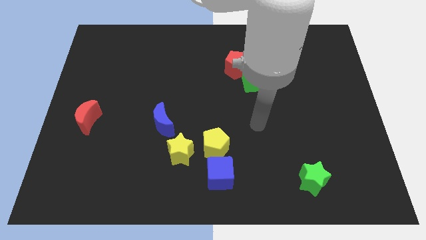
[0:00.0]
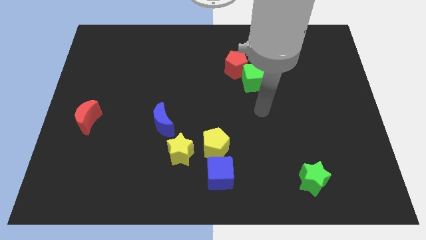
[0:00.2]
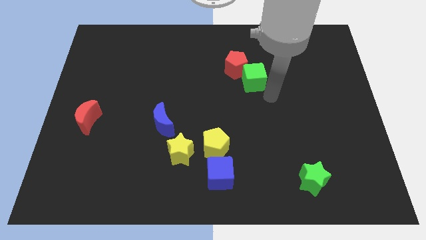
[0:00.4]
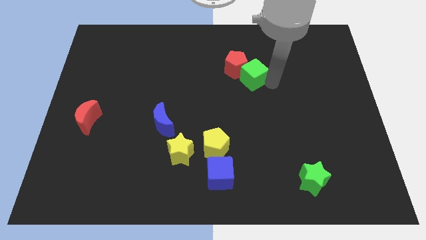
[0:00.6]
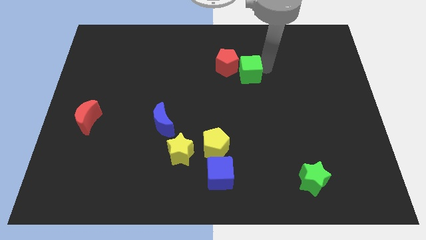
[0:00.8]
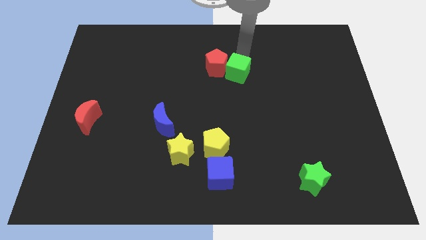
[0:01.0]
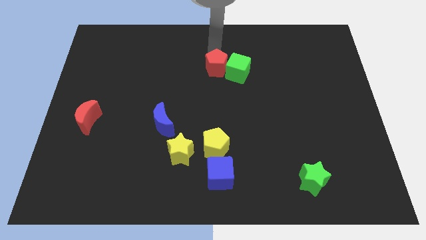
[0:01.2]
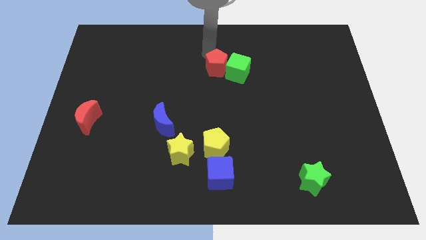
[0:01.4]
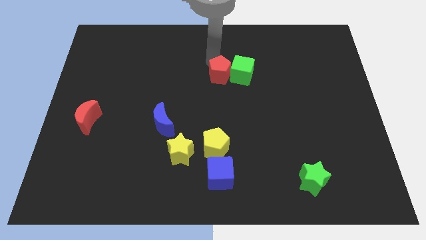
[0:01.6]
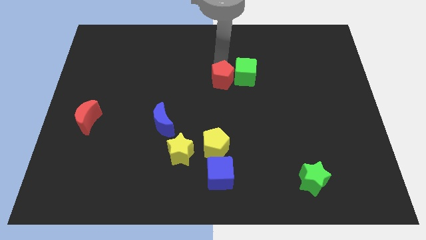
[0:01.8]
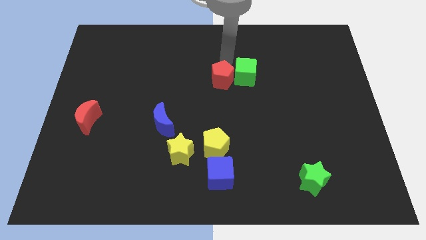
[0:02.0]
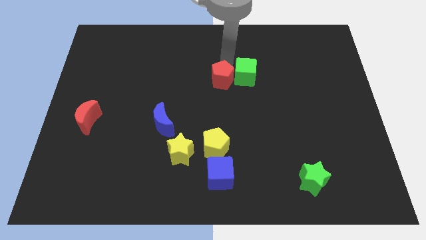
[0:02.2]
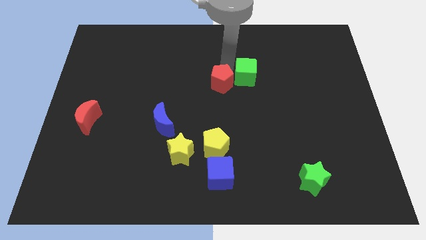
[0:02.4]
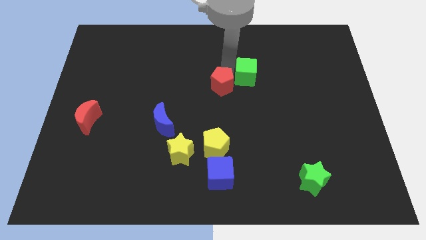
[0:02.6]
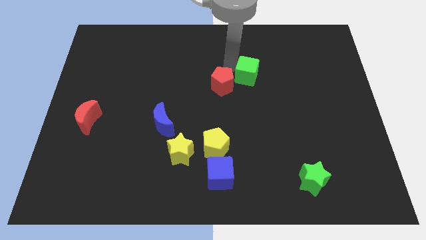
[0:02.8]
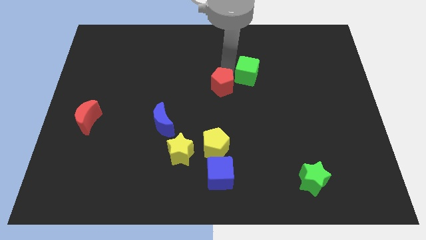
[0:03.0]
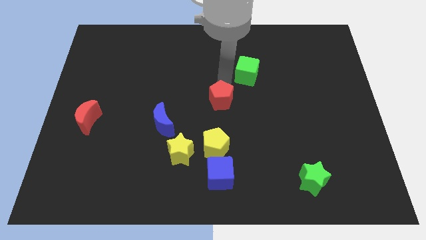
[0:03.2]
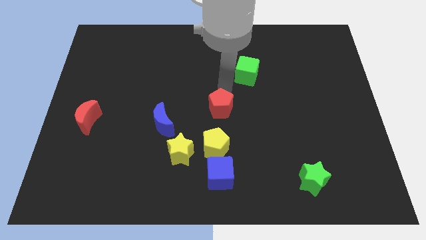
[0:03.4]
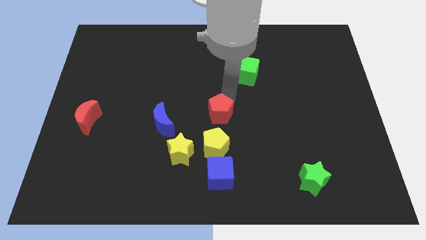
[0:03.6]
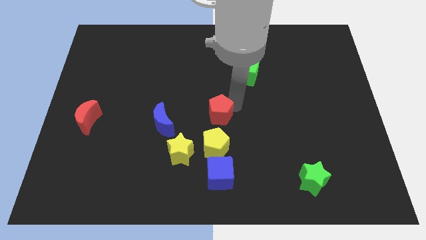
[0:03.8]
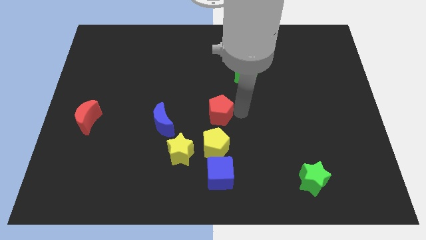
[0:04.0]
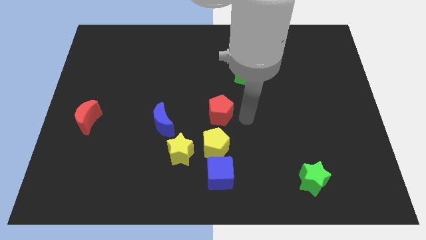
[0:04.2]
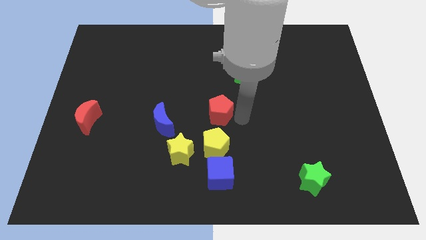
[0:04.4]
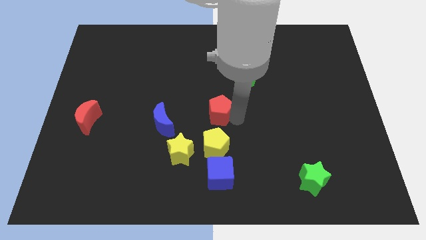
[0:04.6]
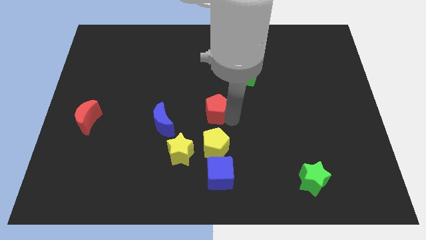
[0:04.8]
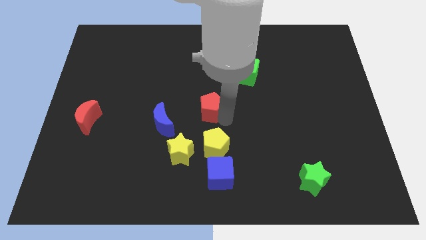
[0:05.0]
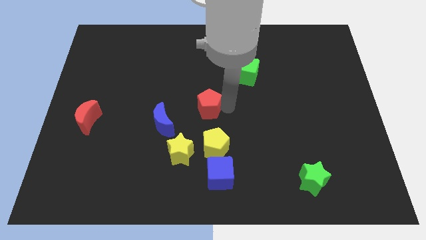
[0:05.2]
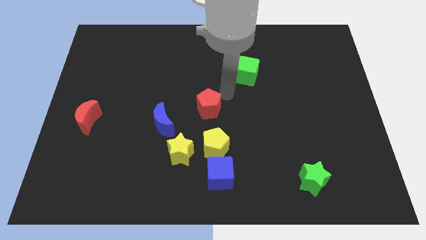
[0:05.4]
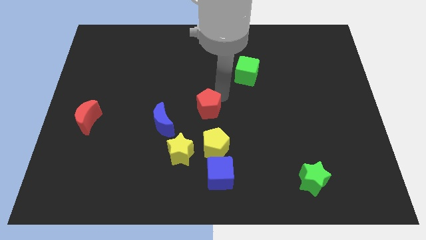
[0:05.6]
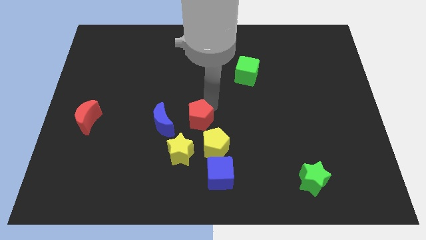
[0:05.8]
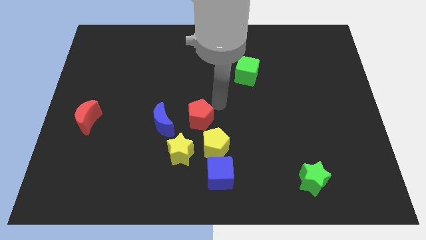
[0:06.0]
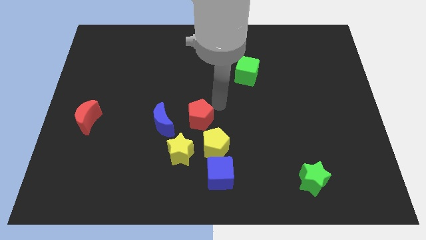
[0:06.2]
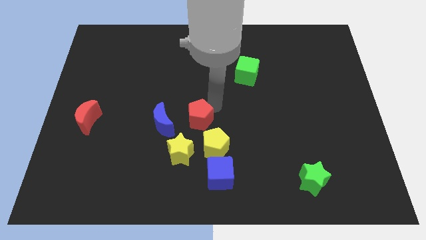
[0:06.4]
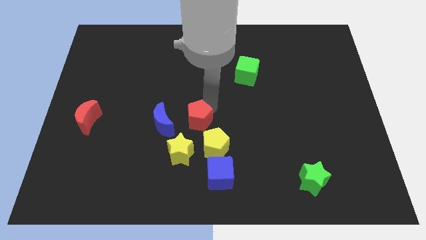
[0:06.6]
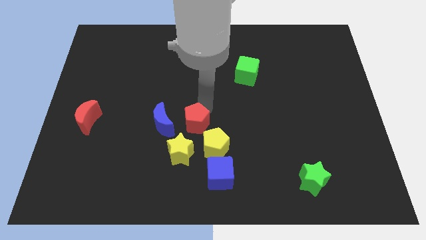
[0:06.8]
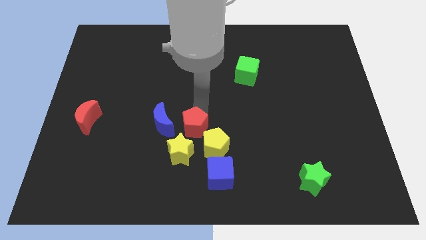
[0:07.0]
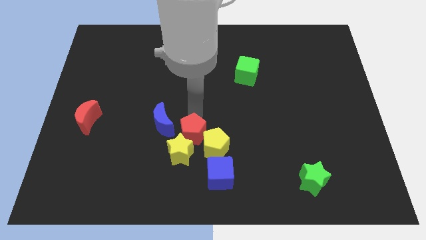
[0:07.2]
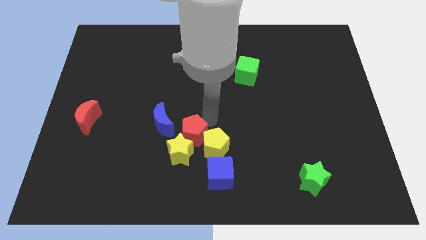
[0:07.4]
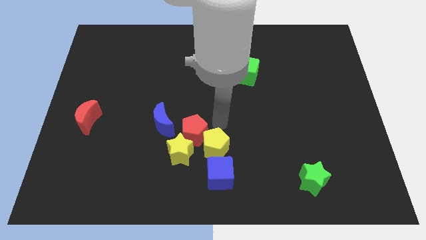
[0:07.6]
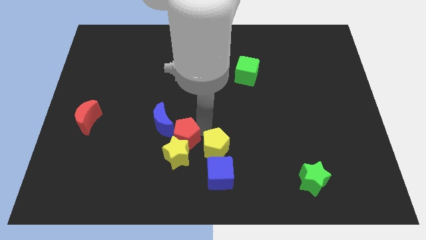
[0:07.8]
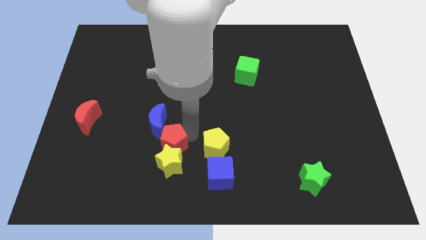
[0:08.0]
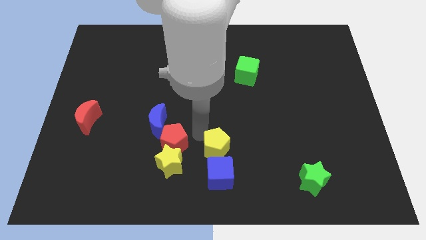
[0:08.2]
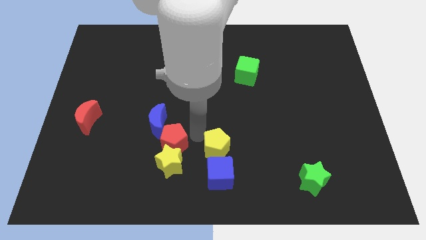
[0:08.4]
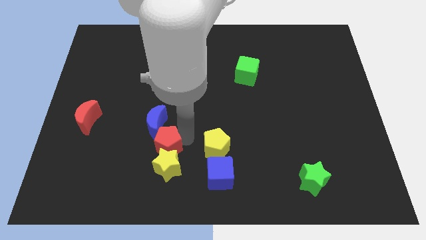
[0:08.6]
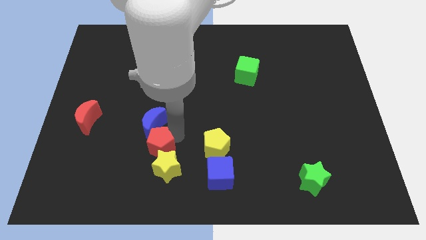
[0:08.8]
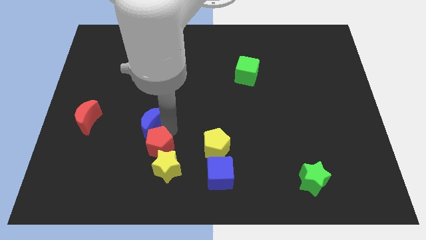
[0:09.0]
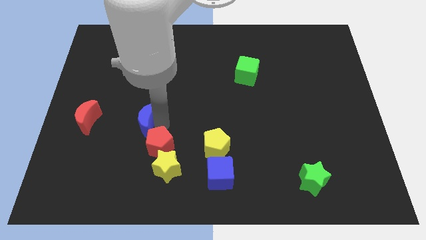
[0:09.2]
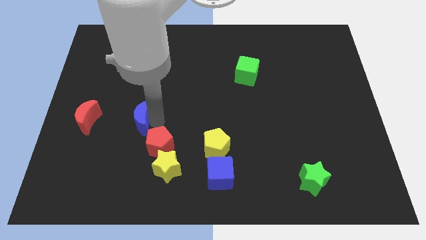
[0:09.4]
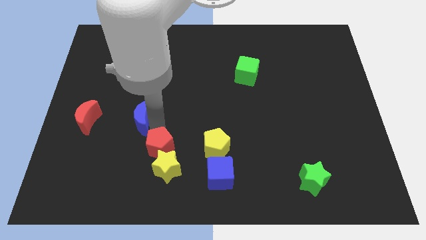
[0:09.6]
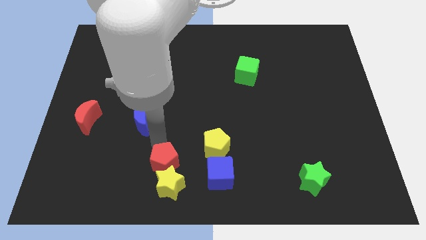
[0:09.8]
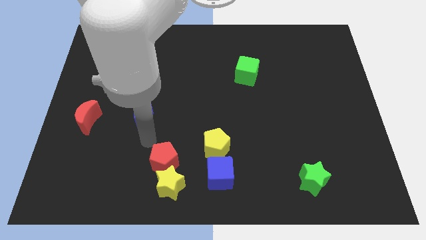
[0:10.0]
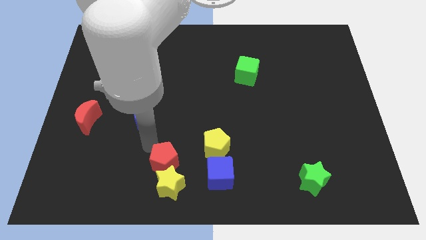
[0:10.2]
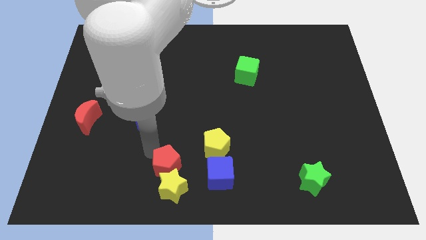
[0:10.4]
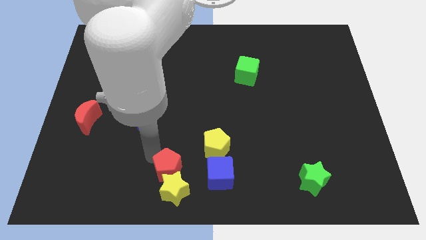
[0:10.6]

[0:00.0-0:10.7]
push the red pentagon to the bottom side

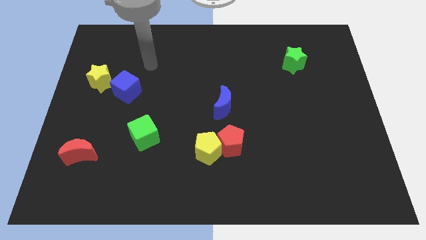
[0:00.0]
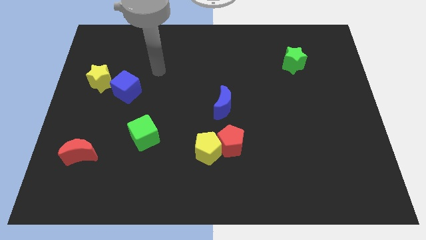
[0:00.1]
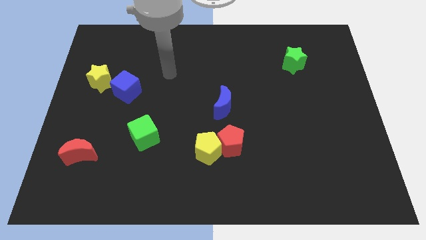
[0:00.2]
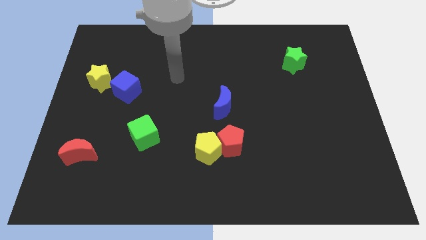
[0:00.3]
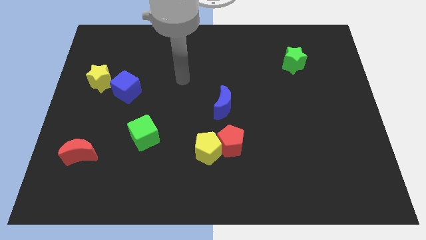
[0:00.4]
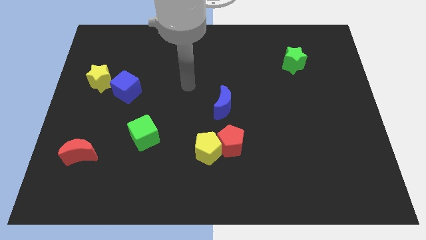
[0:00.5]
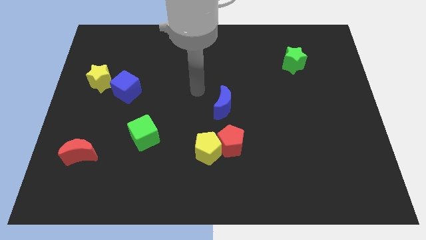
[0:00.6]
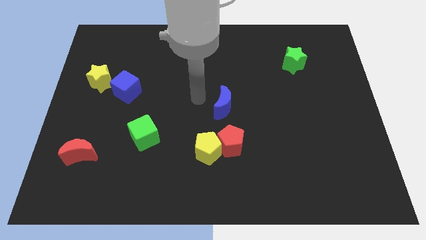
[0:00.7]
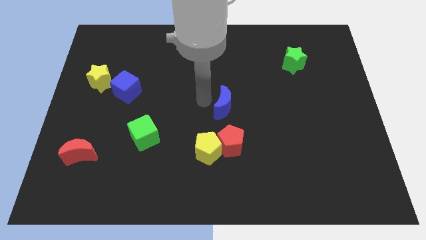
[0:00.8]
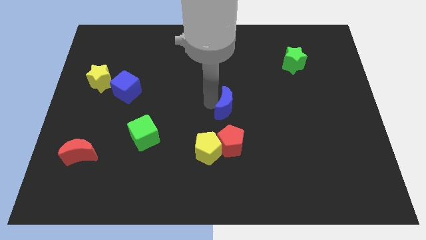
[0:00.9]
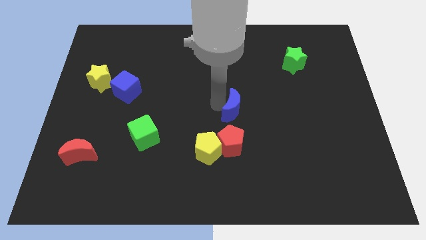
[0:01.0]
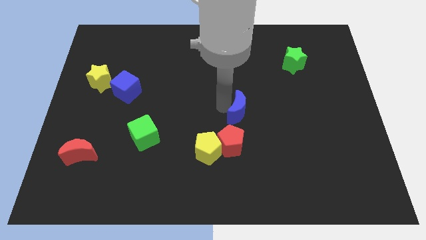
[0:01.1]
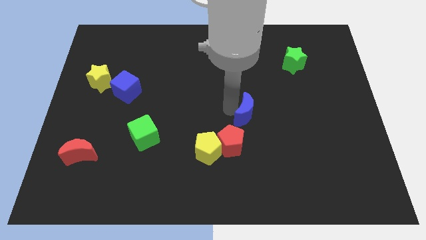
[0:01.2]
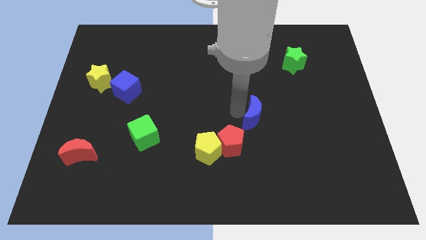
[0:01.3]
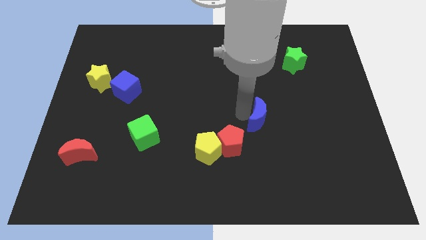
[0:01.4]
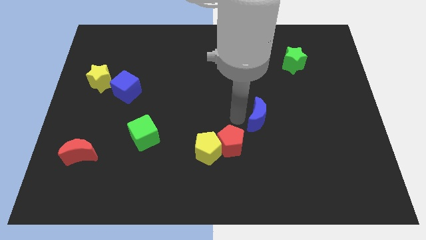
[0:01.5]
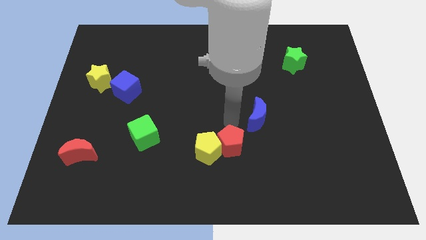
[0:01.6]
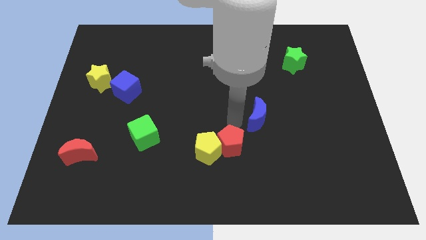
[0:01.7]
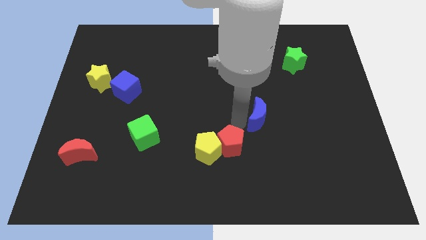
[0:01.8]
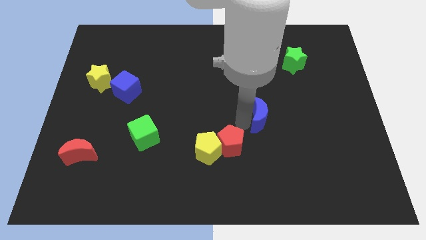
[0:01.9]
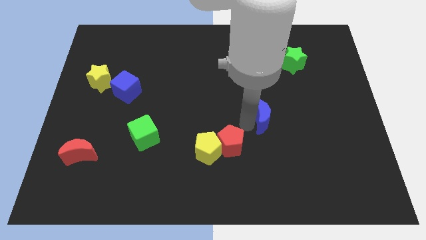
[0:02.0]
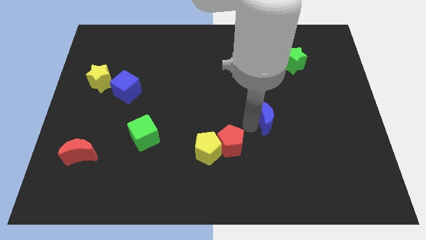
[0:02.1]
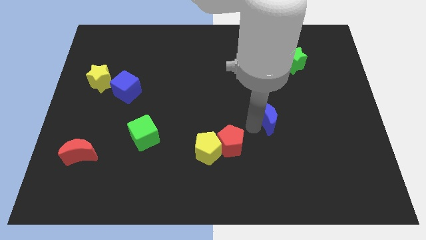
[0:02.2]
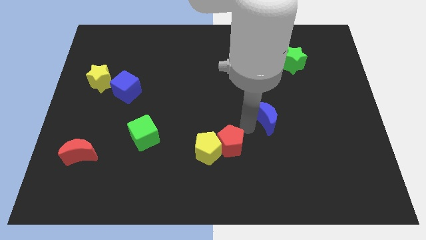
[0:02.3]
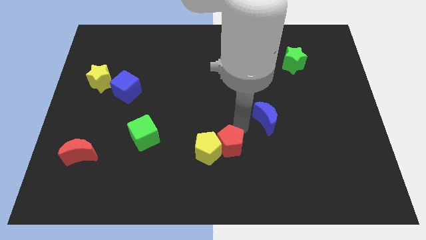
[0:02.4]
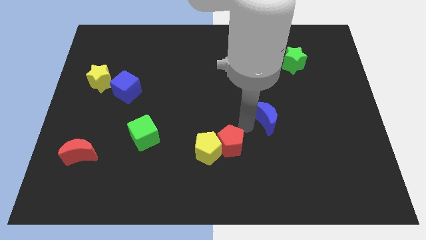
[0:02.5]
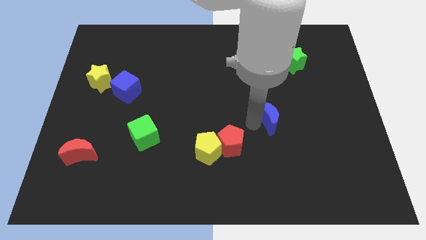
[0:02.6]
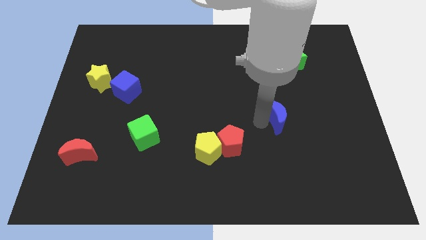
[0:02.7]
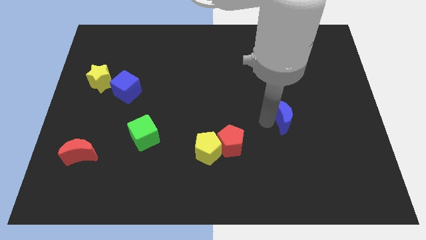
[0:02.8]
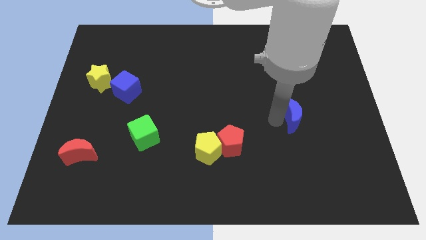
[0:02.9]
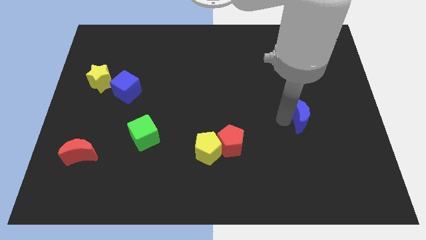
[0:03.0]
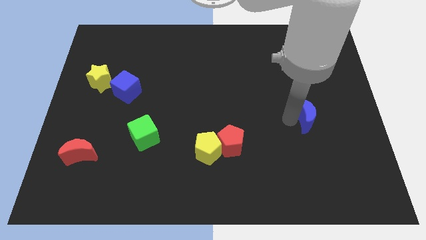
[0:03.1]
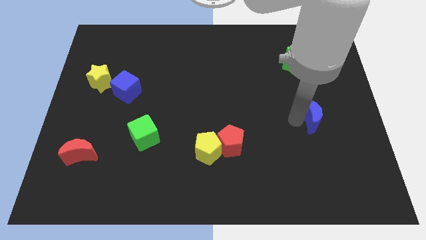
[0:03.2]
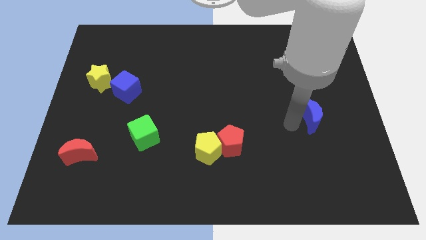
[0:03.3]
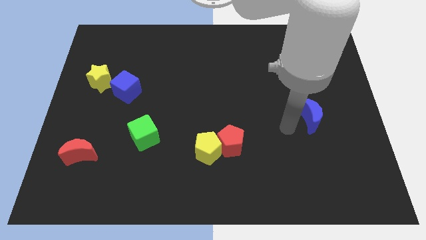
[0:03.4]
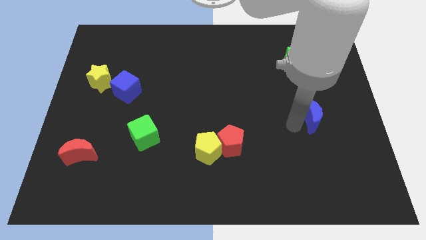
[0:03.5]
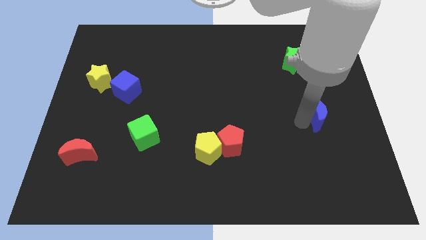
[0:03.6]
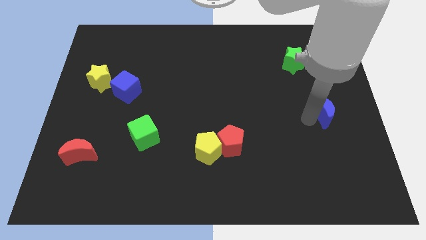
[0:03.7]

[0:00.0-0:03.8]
move the blue moon to the right side of the board
